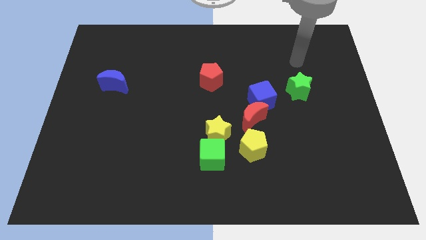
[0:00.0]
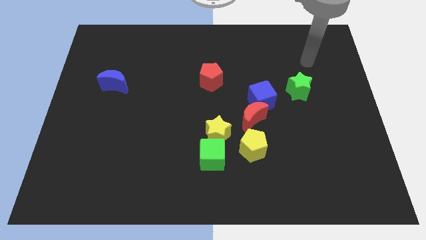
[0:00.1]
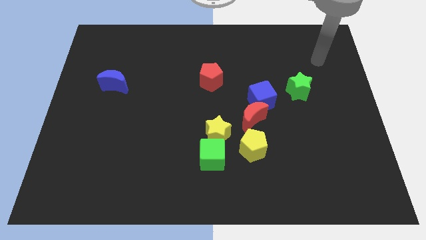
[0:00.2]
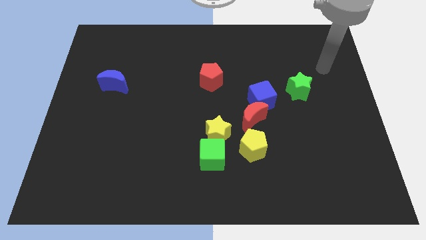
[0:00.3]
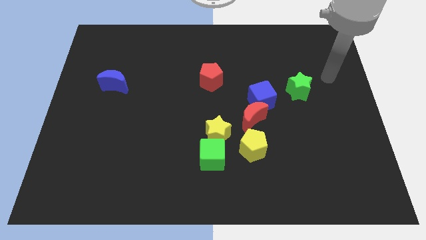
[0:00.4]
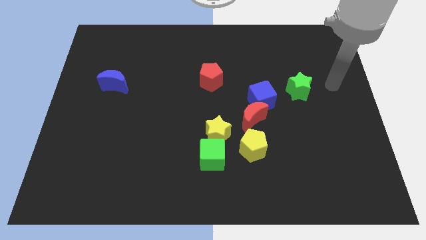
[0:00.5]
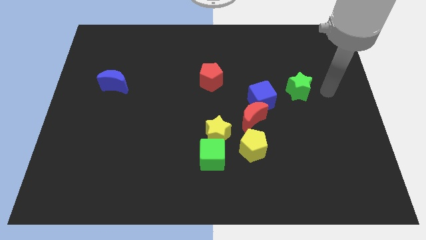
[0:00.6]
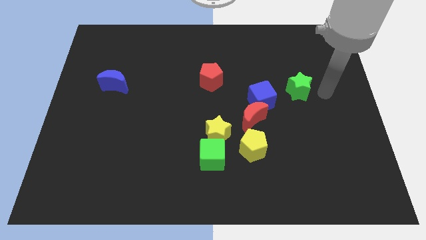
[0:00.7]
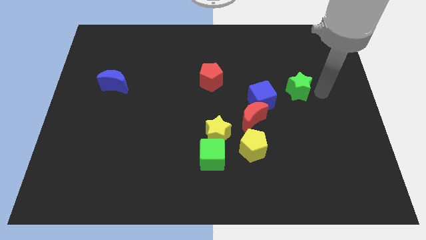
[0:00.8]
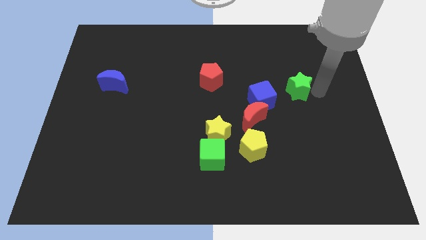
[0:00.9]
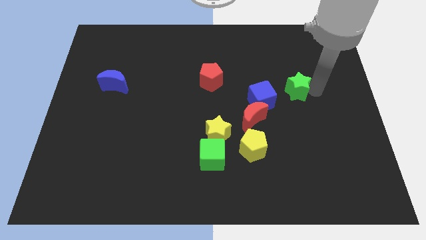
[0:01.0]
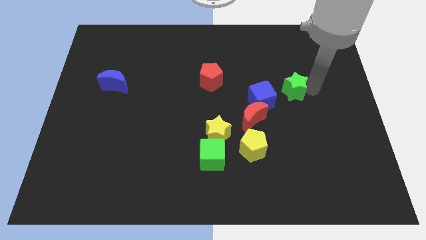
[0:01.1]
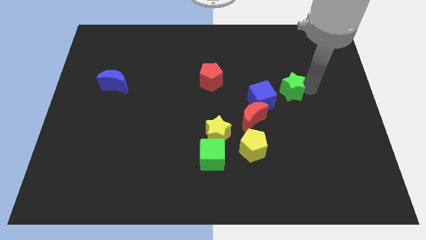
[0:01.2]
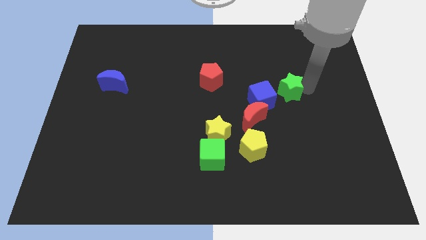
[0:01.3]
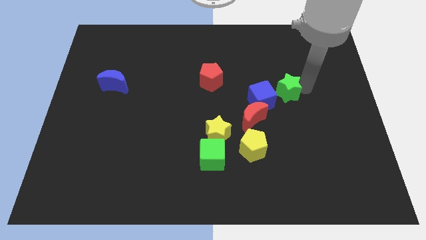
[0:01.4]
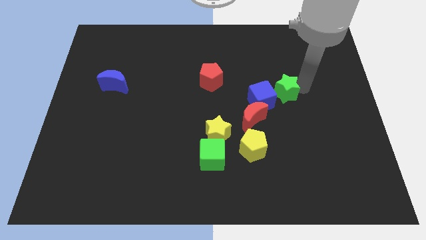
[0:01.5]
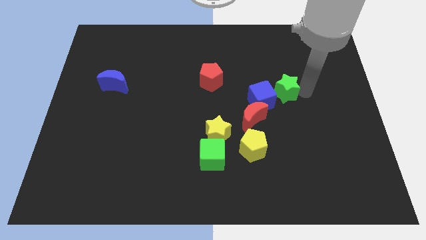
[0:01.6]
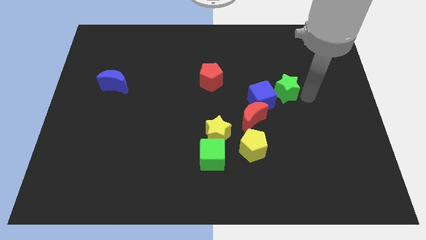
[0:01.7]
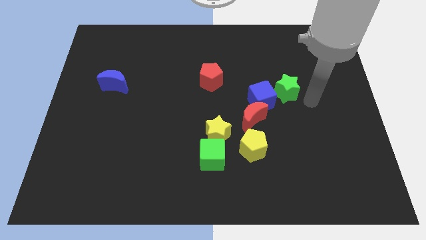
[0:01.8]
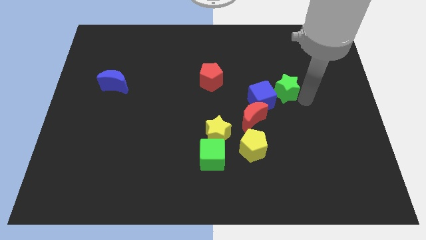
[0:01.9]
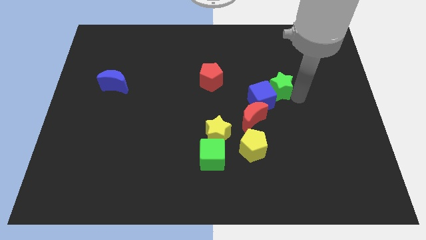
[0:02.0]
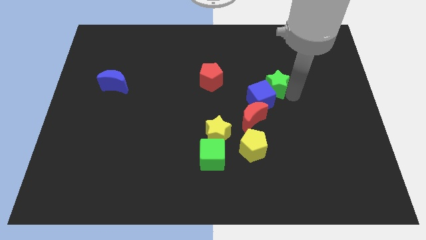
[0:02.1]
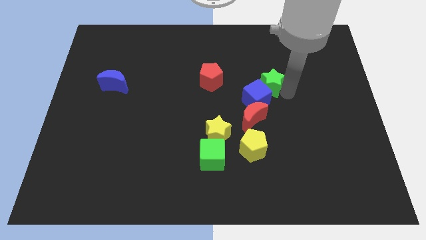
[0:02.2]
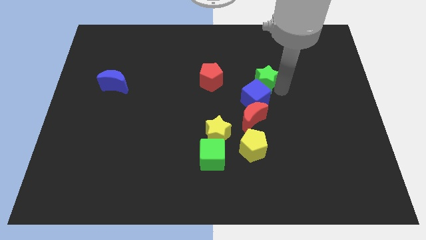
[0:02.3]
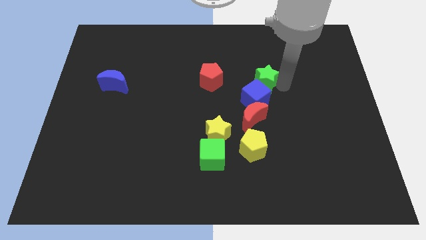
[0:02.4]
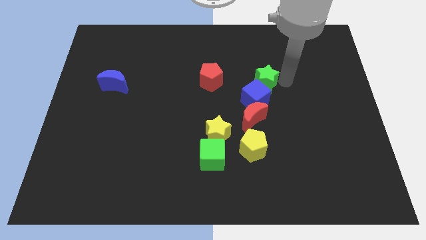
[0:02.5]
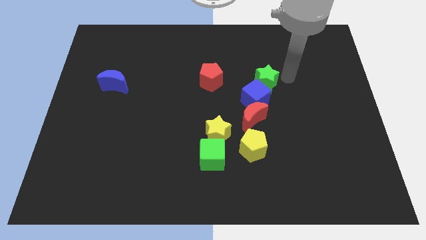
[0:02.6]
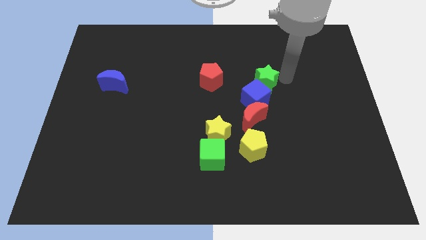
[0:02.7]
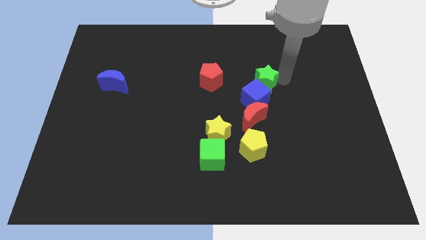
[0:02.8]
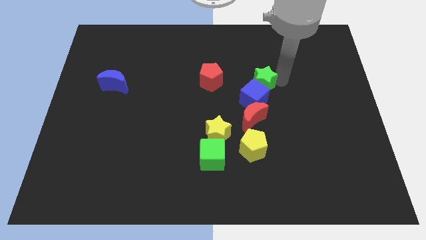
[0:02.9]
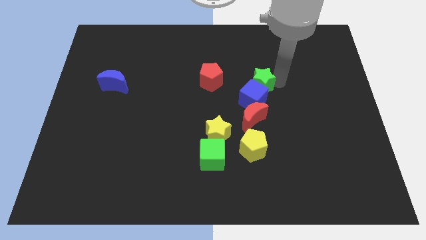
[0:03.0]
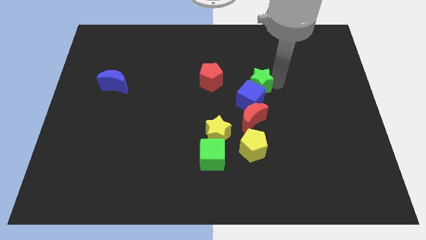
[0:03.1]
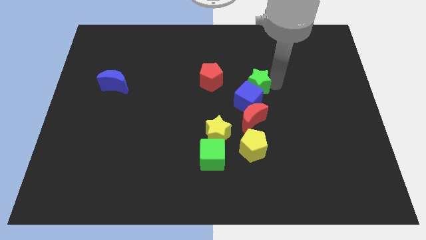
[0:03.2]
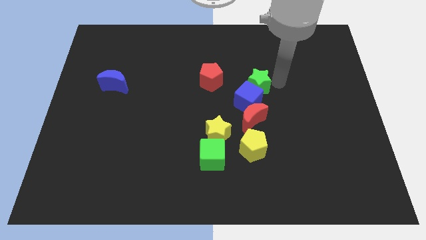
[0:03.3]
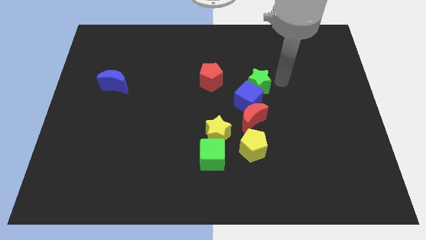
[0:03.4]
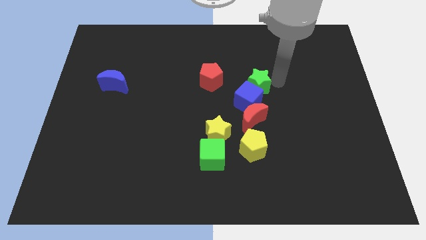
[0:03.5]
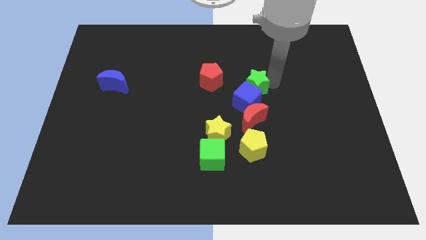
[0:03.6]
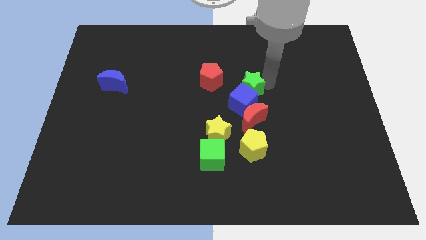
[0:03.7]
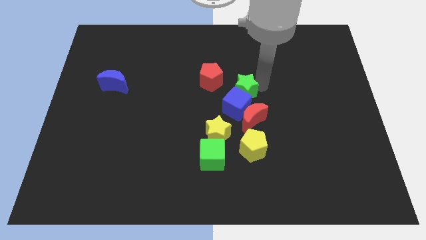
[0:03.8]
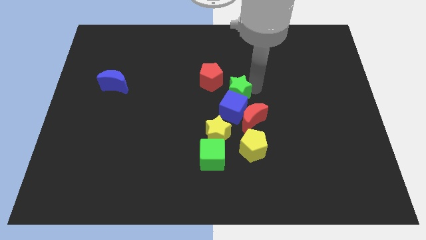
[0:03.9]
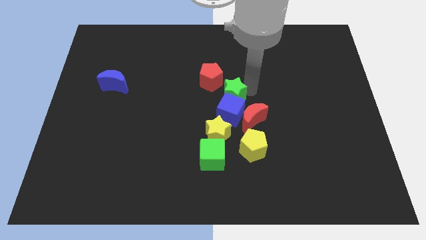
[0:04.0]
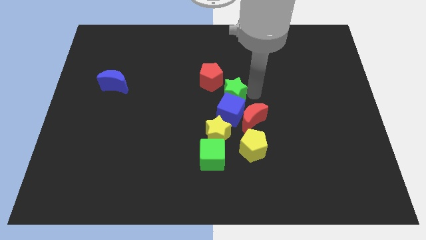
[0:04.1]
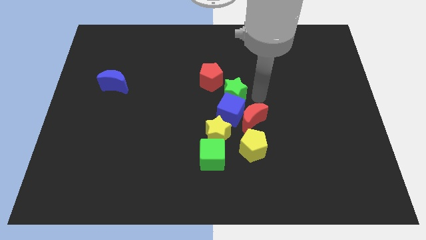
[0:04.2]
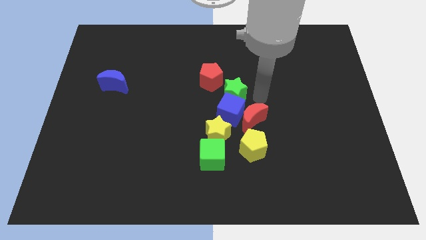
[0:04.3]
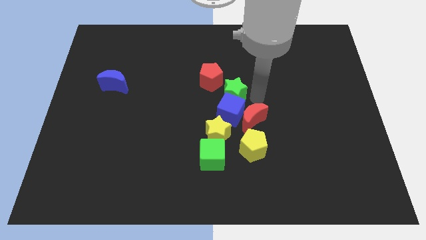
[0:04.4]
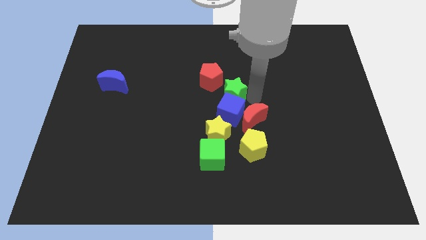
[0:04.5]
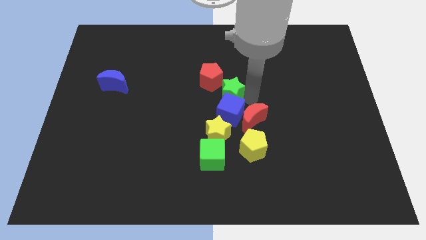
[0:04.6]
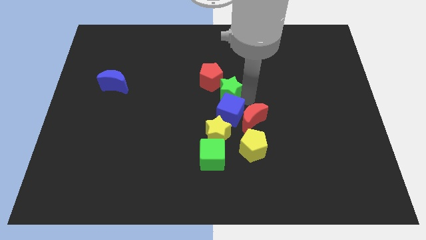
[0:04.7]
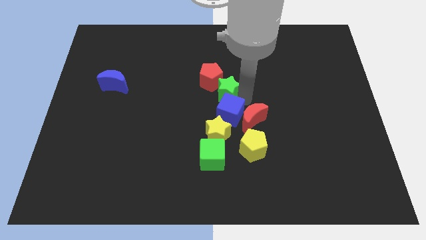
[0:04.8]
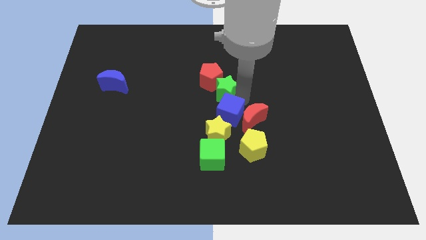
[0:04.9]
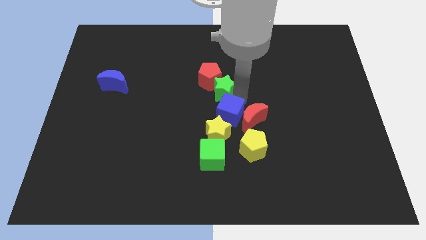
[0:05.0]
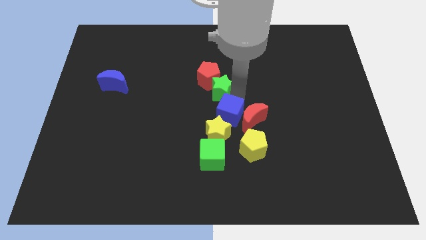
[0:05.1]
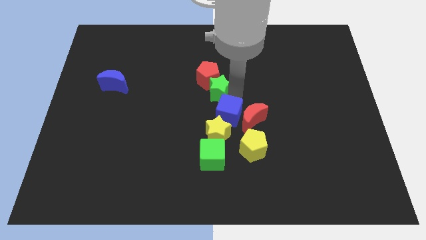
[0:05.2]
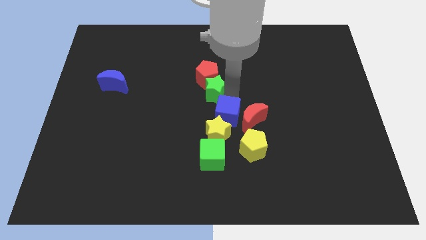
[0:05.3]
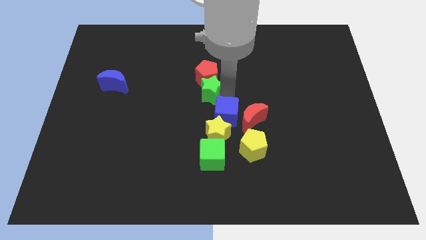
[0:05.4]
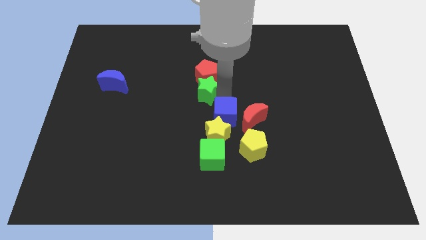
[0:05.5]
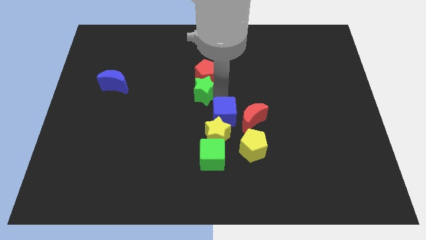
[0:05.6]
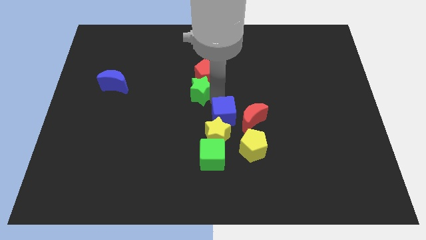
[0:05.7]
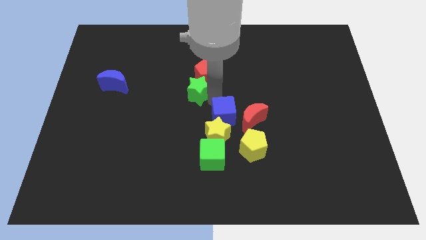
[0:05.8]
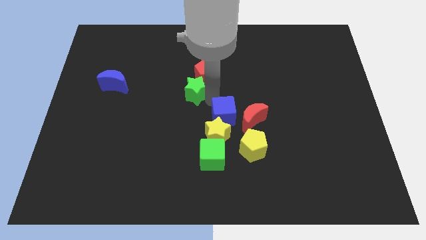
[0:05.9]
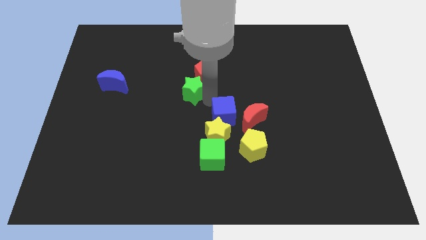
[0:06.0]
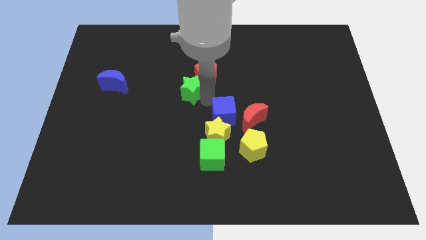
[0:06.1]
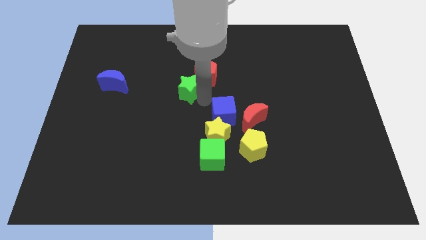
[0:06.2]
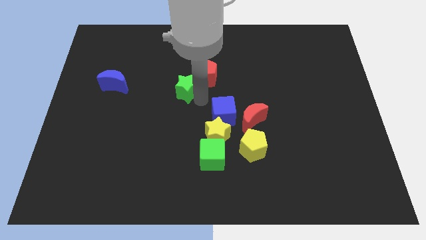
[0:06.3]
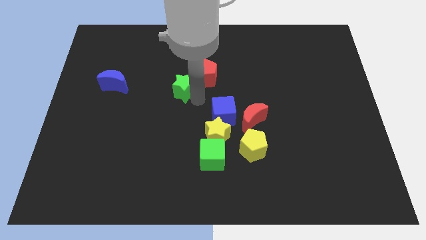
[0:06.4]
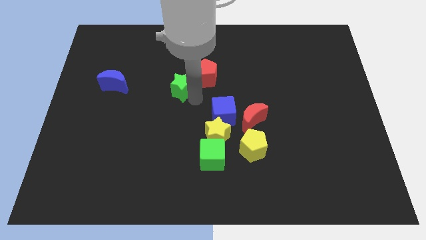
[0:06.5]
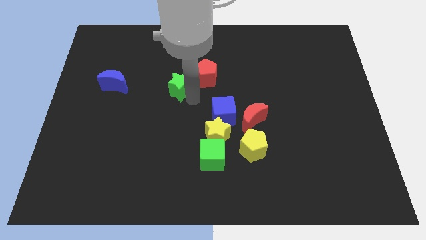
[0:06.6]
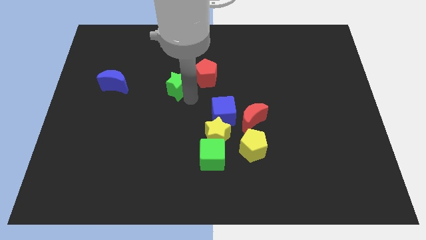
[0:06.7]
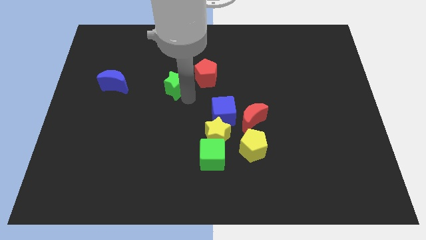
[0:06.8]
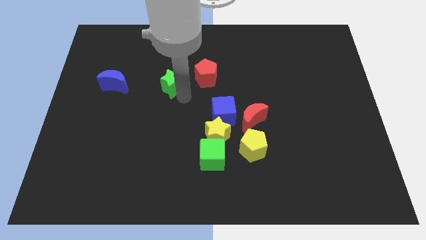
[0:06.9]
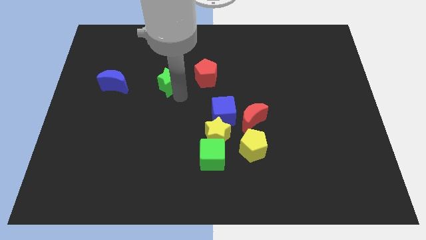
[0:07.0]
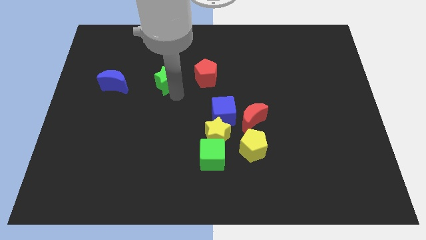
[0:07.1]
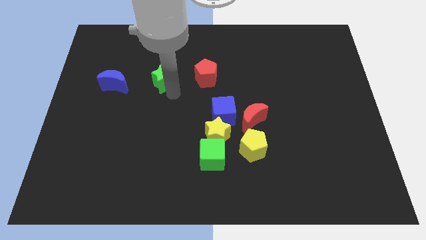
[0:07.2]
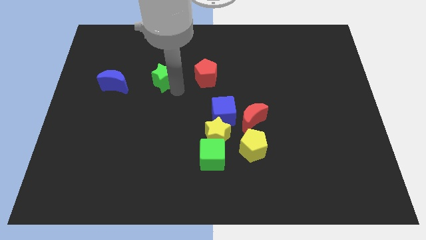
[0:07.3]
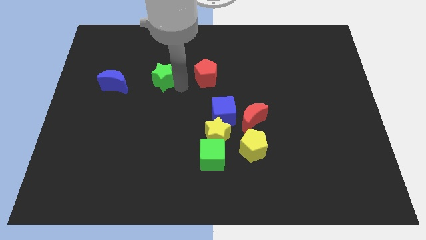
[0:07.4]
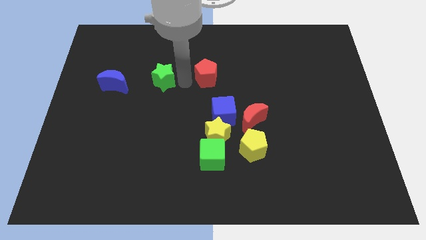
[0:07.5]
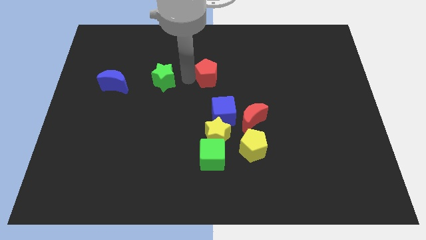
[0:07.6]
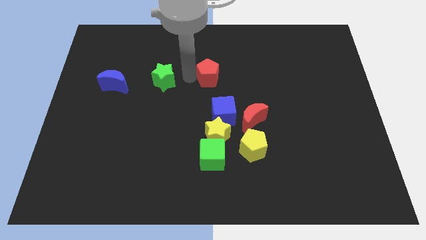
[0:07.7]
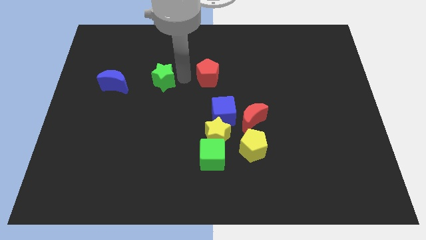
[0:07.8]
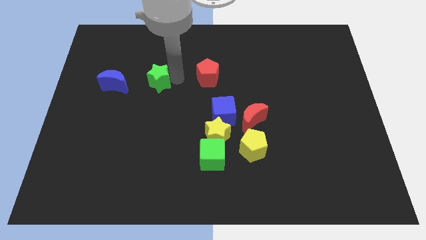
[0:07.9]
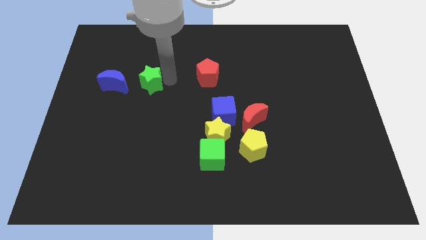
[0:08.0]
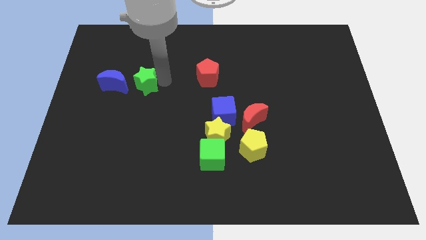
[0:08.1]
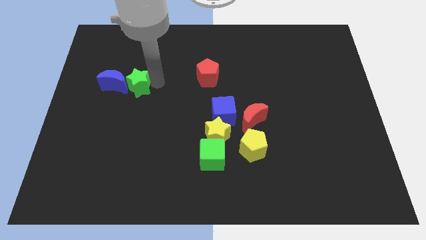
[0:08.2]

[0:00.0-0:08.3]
put the green star next to the blue moon
